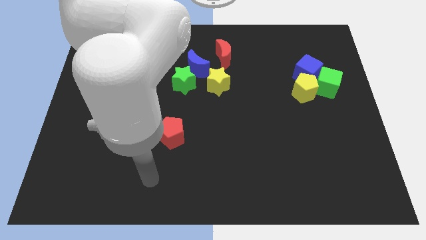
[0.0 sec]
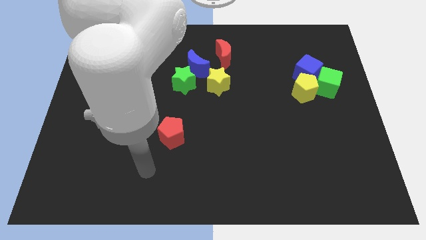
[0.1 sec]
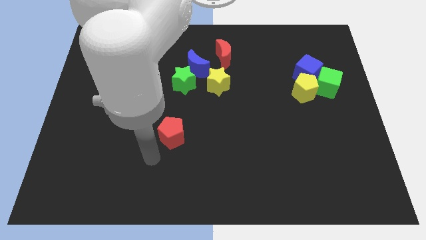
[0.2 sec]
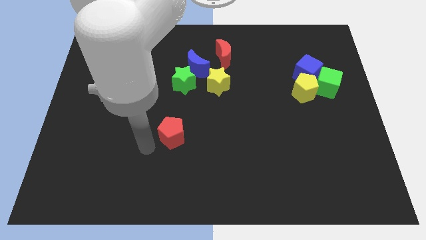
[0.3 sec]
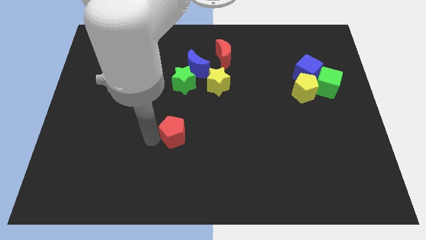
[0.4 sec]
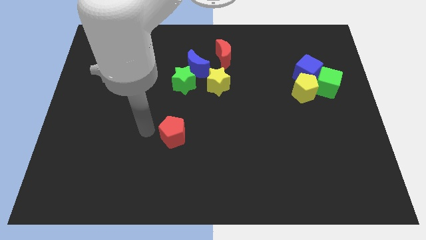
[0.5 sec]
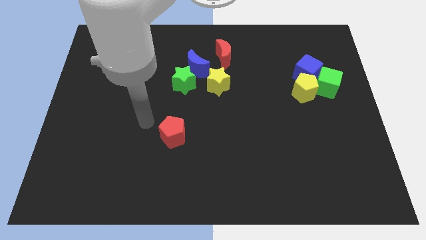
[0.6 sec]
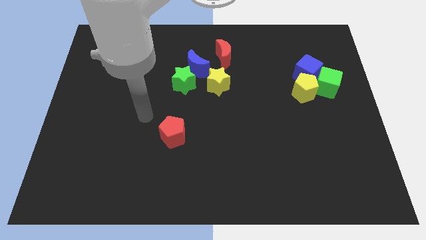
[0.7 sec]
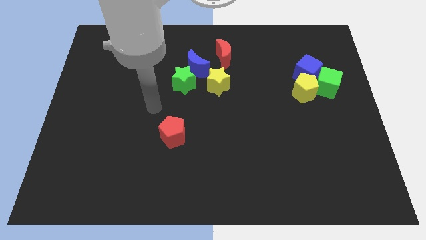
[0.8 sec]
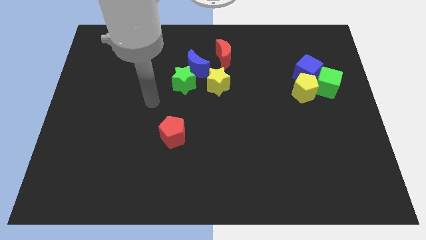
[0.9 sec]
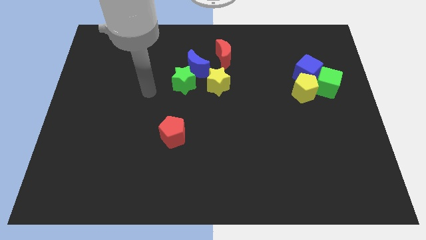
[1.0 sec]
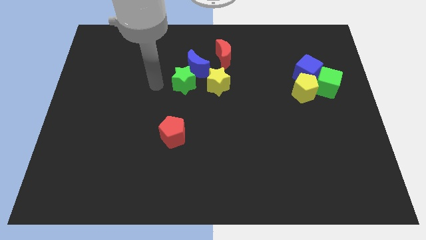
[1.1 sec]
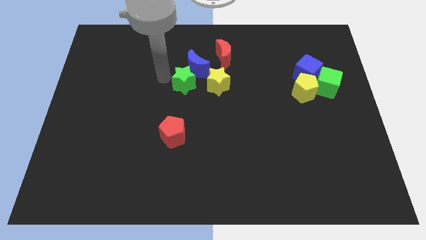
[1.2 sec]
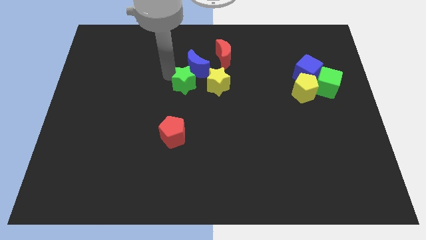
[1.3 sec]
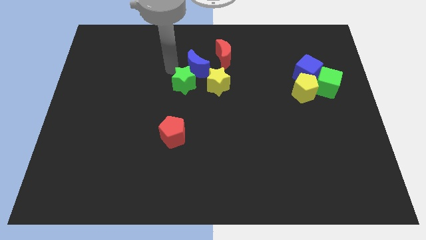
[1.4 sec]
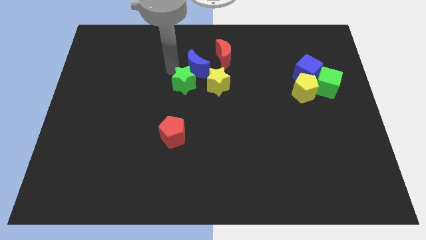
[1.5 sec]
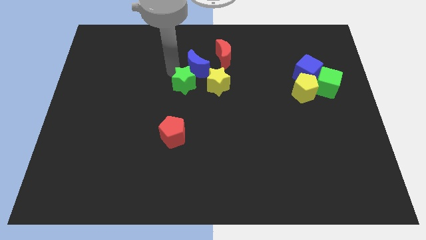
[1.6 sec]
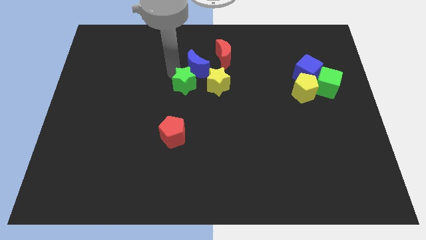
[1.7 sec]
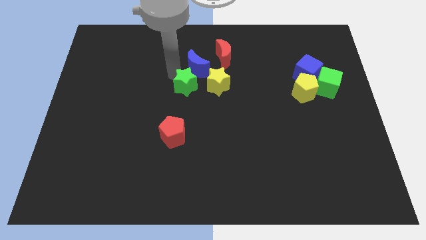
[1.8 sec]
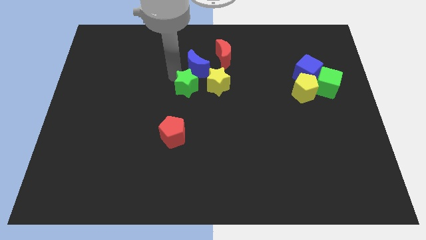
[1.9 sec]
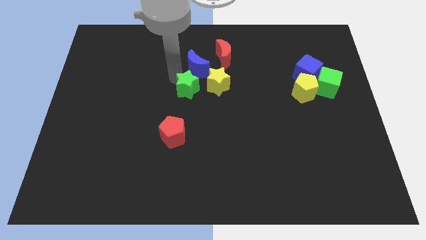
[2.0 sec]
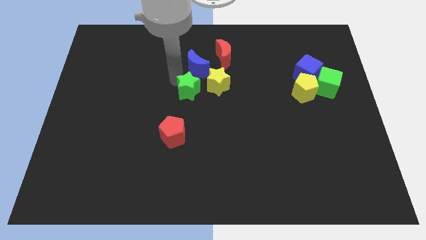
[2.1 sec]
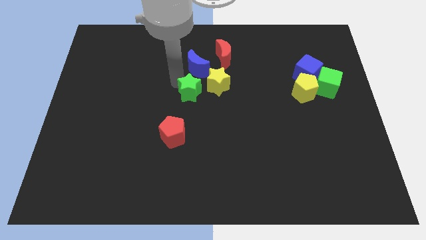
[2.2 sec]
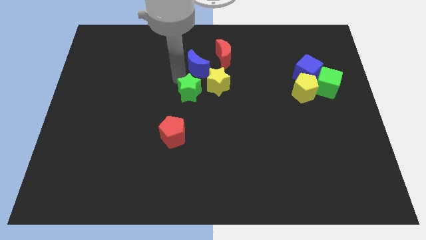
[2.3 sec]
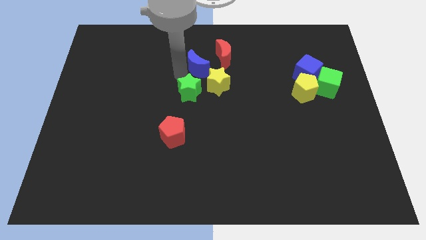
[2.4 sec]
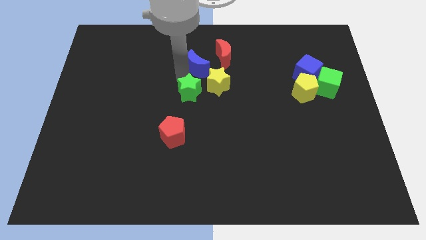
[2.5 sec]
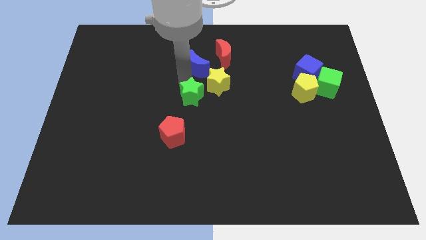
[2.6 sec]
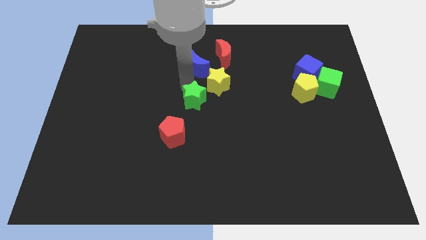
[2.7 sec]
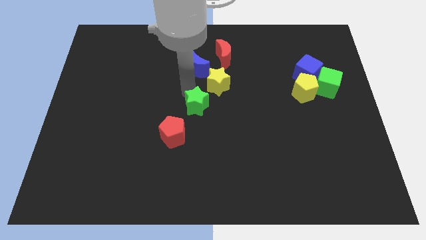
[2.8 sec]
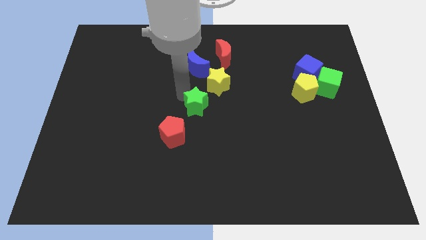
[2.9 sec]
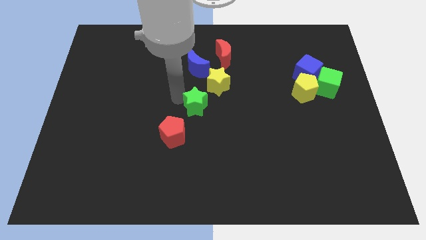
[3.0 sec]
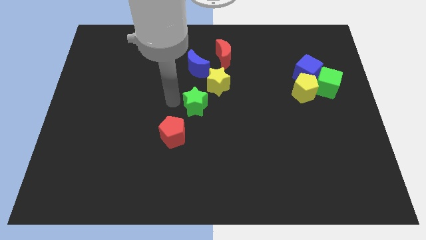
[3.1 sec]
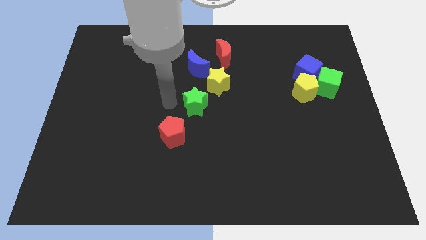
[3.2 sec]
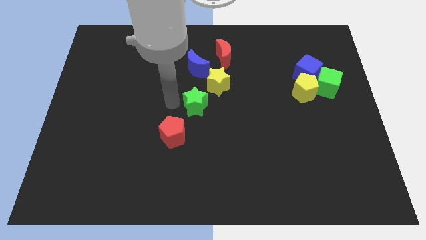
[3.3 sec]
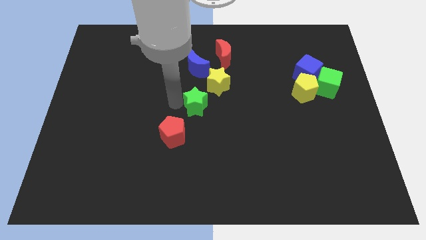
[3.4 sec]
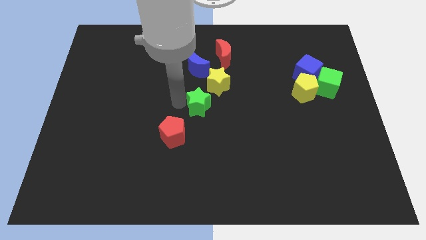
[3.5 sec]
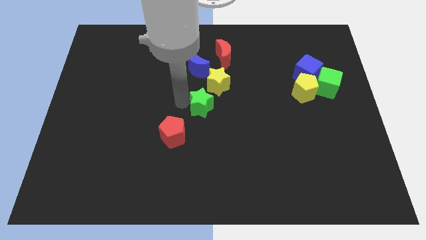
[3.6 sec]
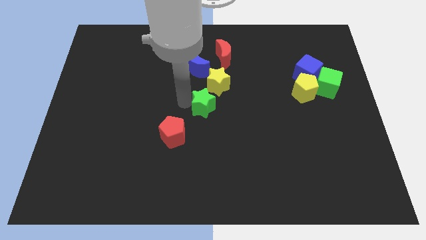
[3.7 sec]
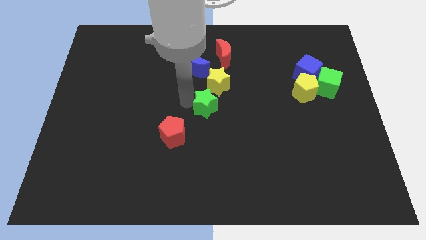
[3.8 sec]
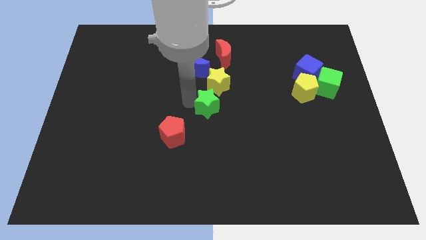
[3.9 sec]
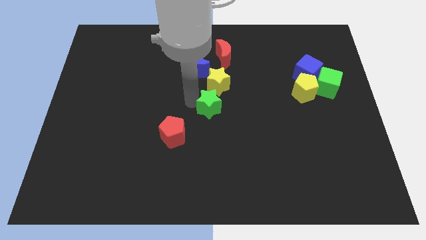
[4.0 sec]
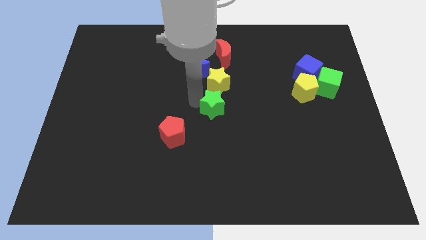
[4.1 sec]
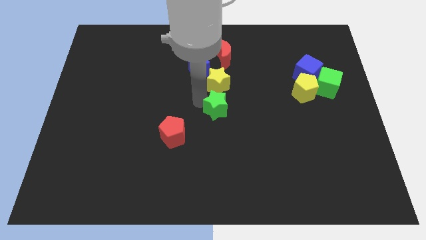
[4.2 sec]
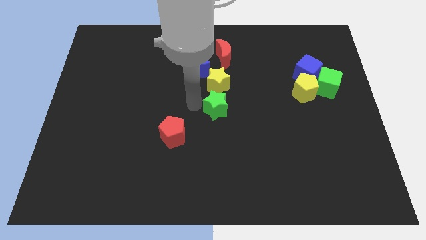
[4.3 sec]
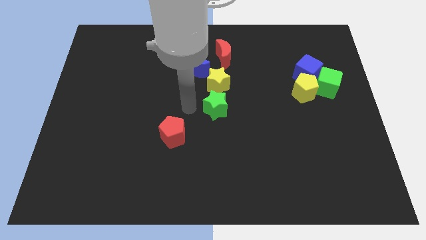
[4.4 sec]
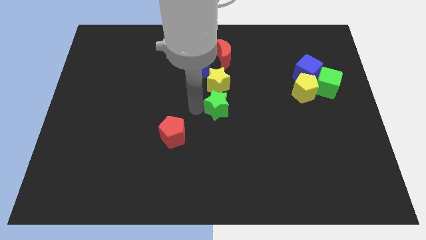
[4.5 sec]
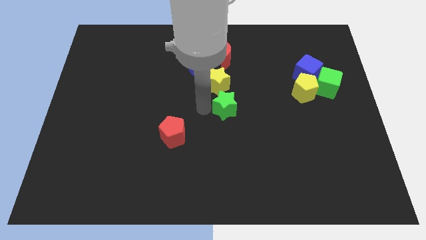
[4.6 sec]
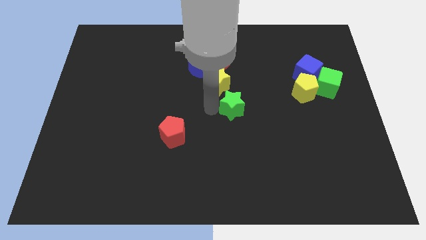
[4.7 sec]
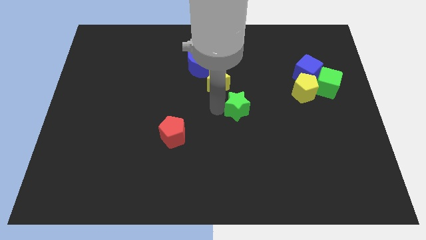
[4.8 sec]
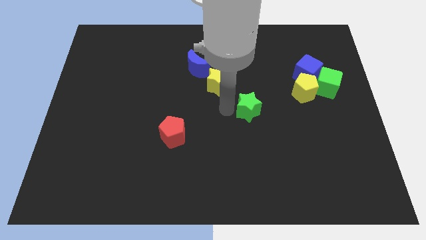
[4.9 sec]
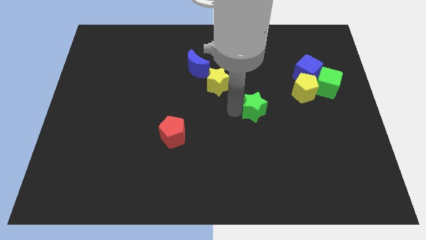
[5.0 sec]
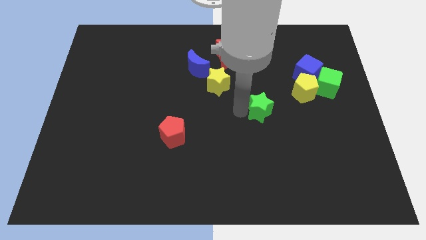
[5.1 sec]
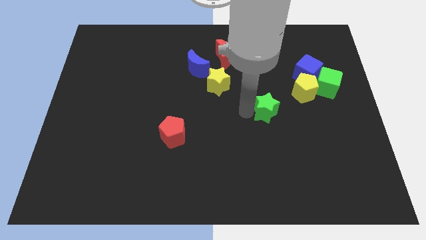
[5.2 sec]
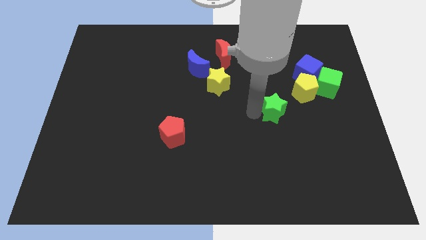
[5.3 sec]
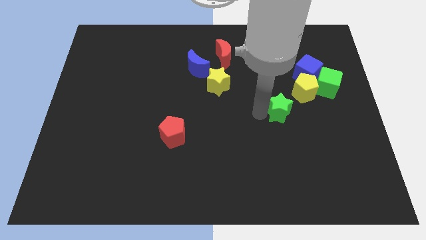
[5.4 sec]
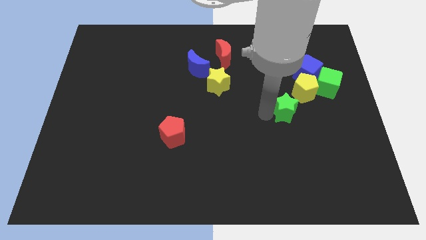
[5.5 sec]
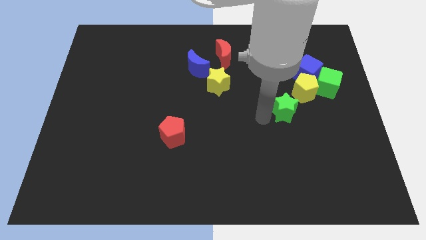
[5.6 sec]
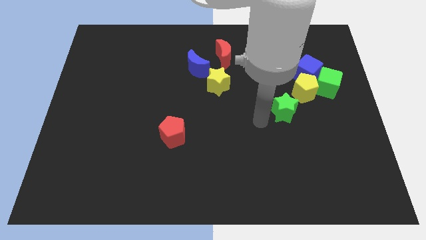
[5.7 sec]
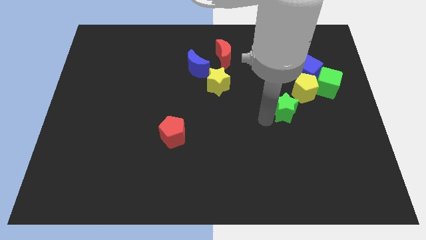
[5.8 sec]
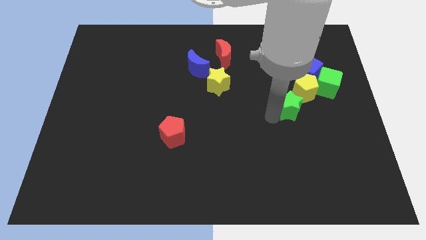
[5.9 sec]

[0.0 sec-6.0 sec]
put the green star to the bottom left side of the green cube

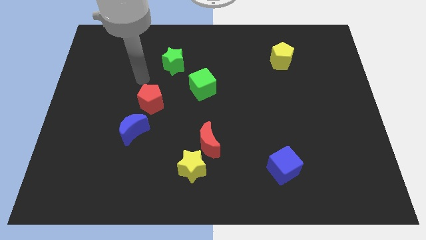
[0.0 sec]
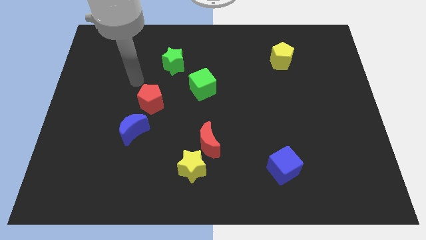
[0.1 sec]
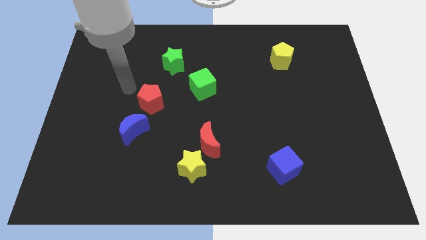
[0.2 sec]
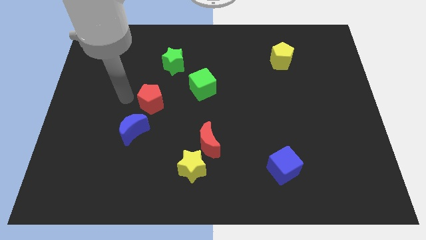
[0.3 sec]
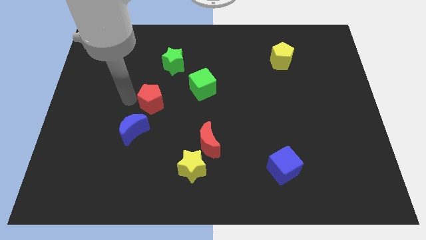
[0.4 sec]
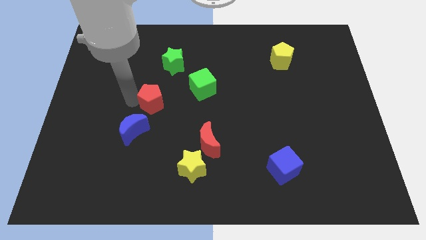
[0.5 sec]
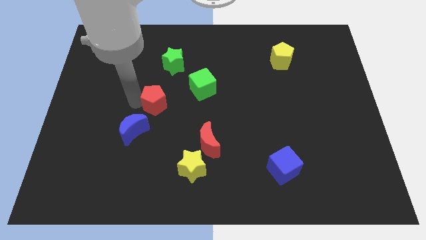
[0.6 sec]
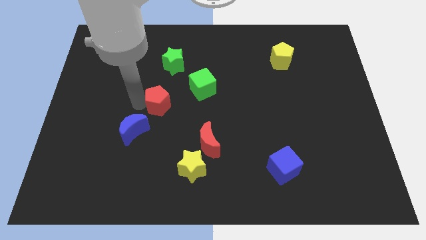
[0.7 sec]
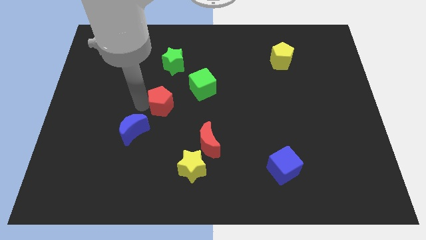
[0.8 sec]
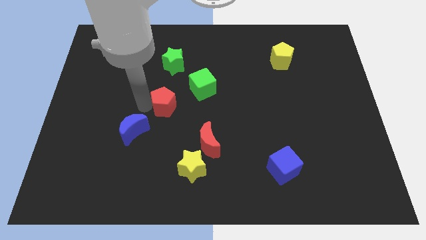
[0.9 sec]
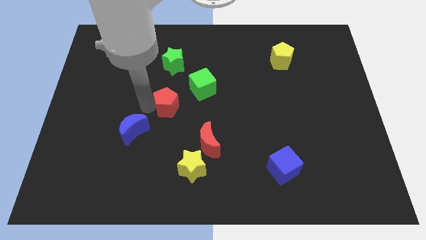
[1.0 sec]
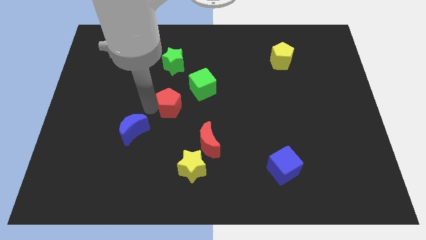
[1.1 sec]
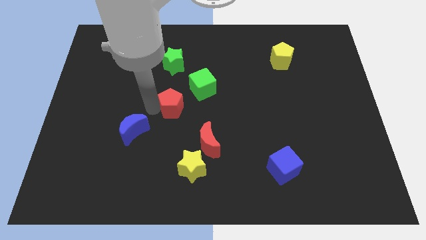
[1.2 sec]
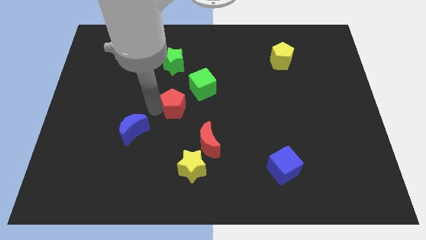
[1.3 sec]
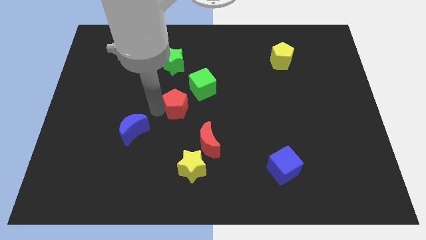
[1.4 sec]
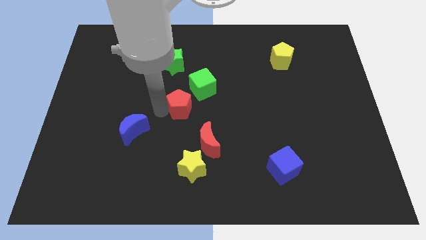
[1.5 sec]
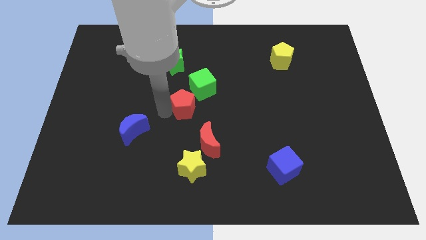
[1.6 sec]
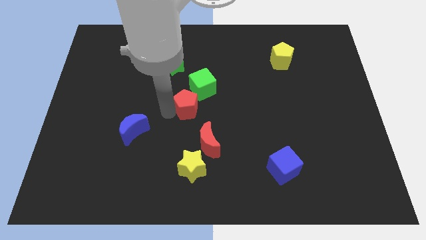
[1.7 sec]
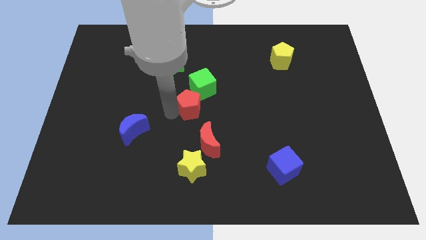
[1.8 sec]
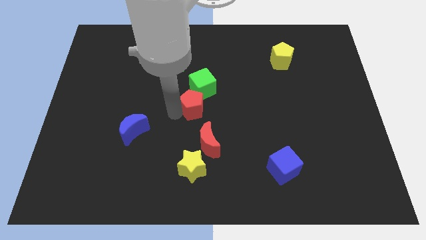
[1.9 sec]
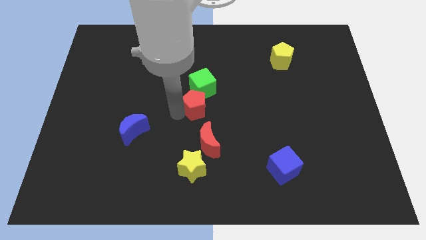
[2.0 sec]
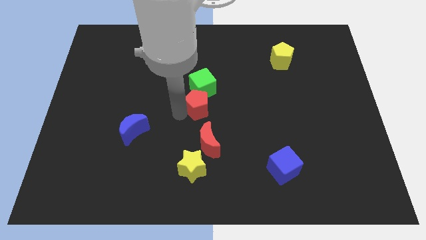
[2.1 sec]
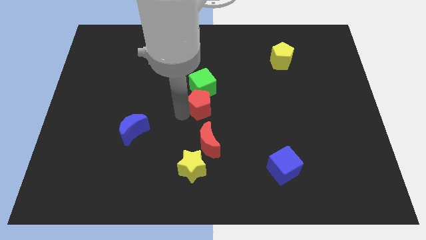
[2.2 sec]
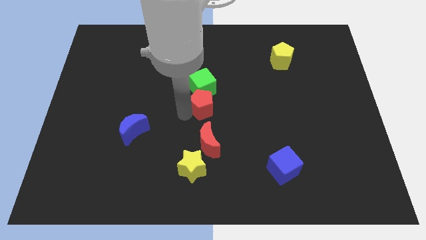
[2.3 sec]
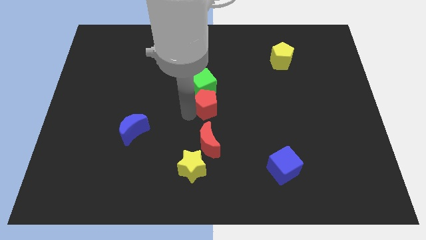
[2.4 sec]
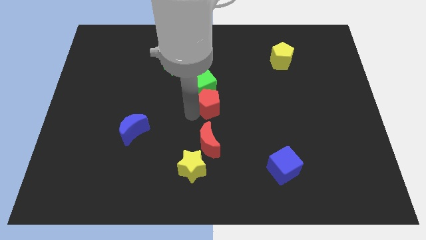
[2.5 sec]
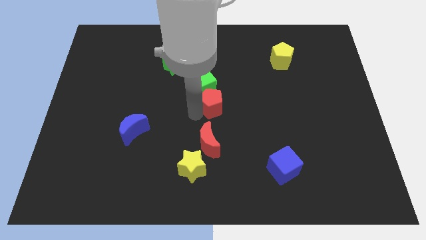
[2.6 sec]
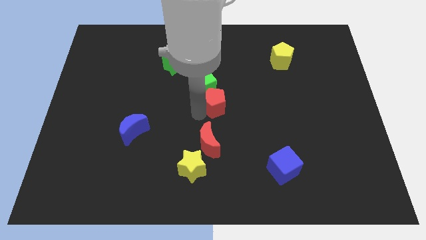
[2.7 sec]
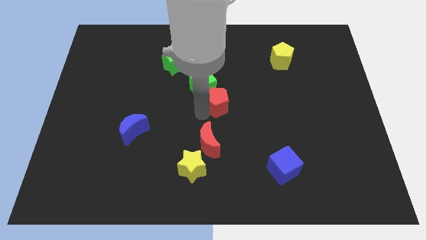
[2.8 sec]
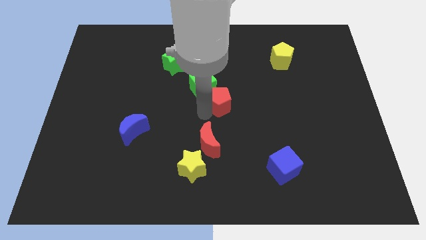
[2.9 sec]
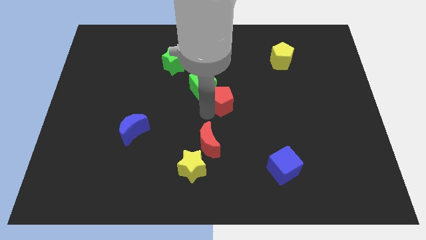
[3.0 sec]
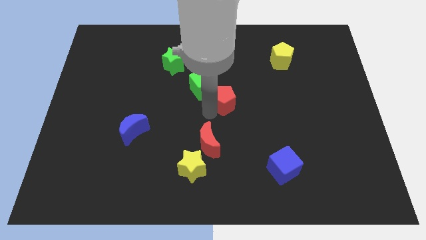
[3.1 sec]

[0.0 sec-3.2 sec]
move the red pentagon right of the green cube
